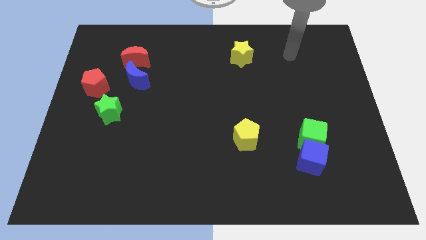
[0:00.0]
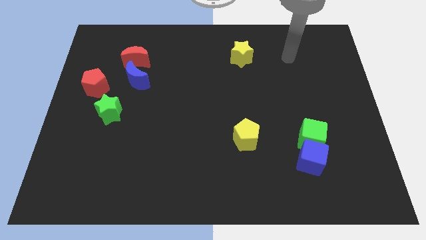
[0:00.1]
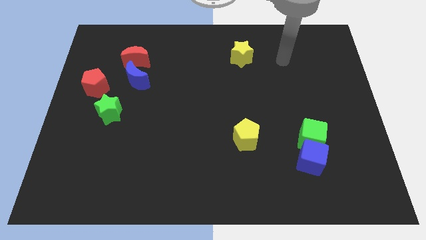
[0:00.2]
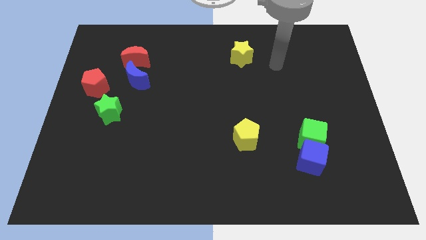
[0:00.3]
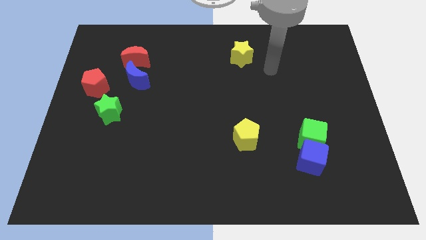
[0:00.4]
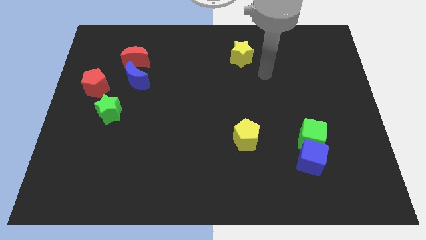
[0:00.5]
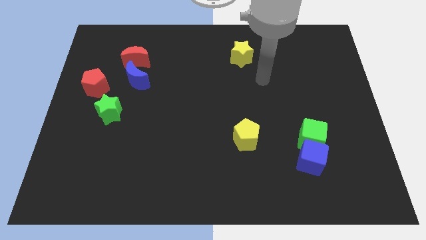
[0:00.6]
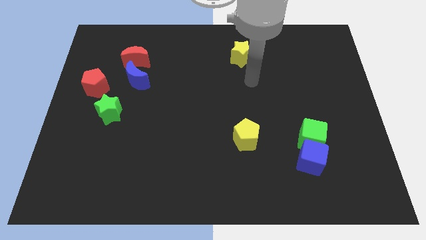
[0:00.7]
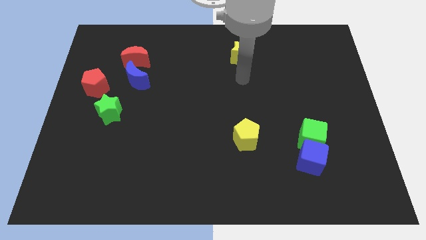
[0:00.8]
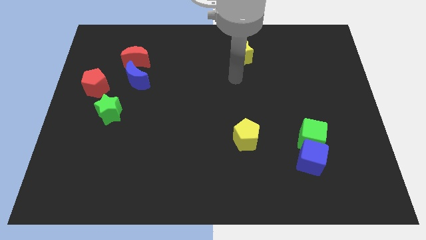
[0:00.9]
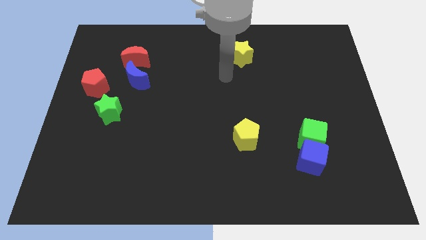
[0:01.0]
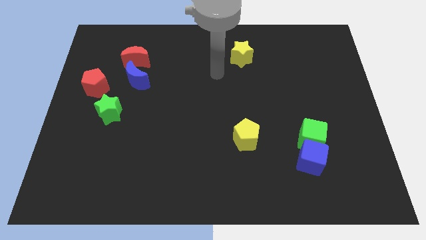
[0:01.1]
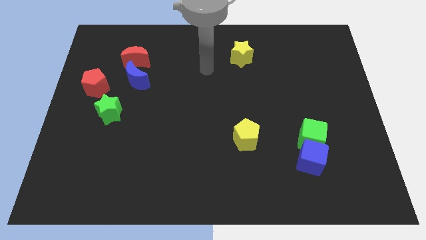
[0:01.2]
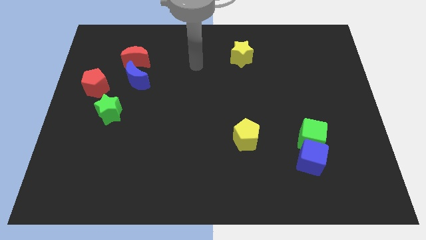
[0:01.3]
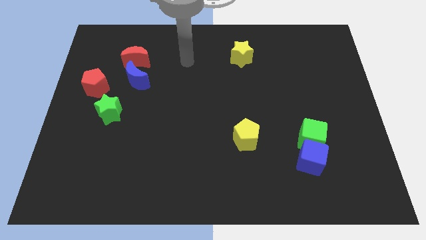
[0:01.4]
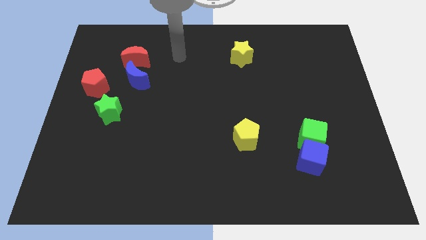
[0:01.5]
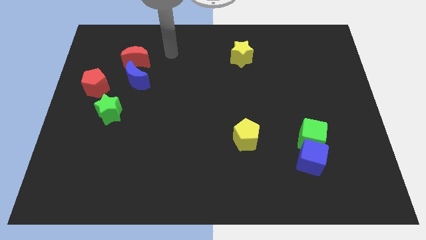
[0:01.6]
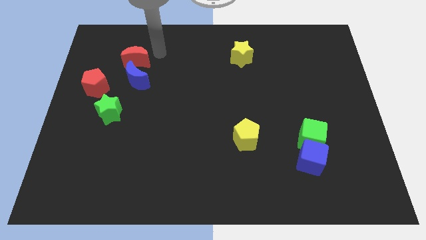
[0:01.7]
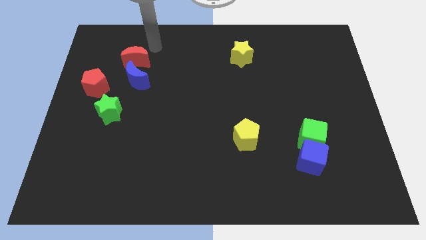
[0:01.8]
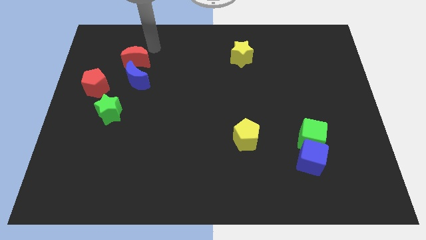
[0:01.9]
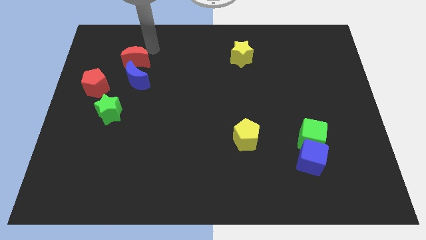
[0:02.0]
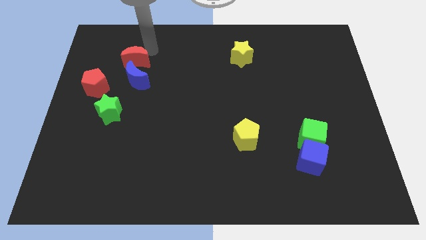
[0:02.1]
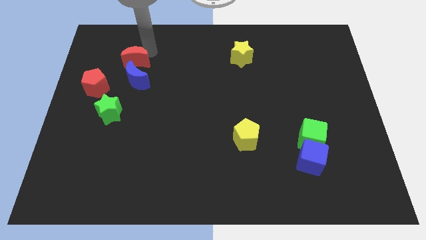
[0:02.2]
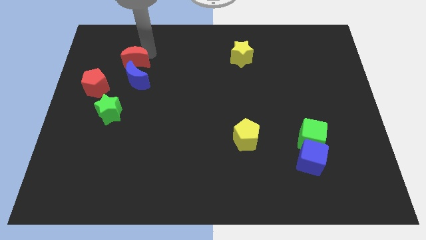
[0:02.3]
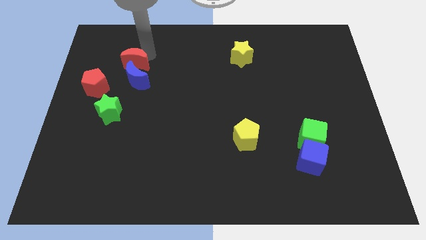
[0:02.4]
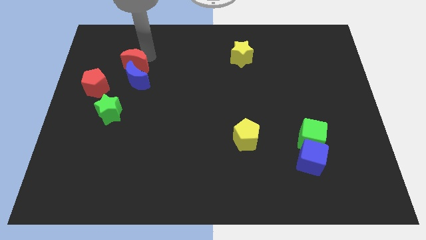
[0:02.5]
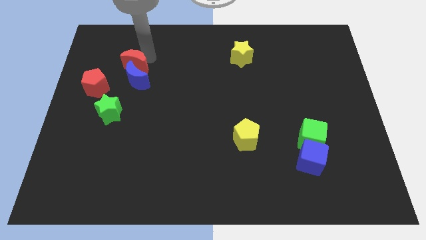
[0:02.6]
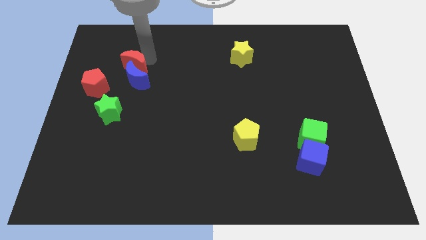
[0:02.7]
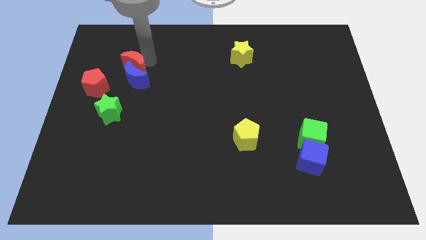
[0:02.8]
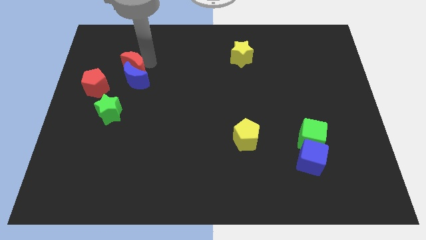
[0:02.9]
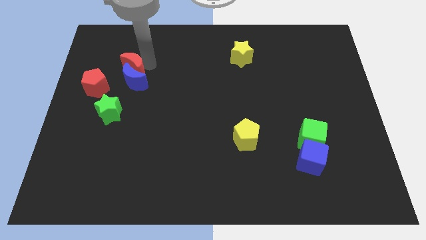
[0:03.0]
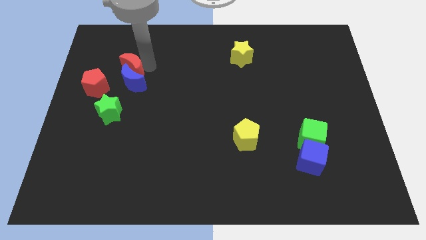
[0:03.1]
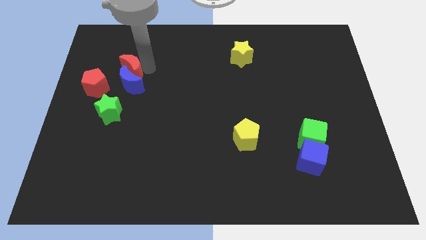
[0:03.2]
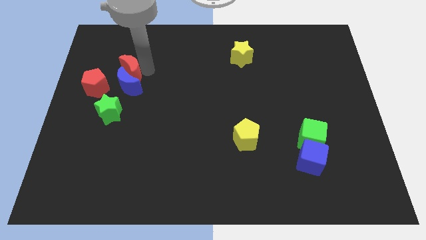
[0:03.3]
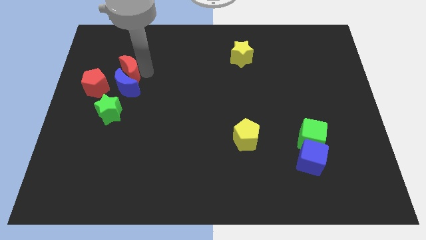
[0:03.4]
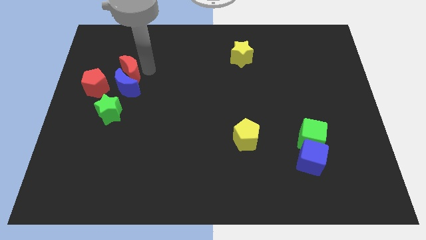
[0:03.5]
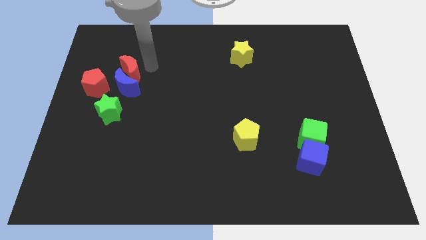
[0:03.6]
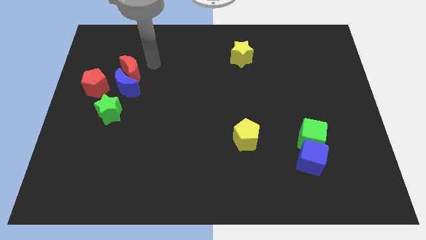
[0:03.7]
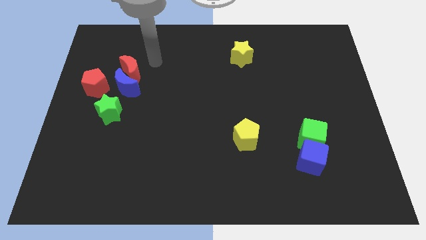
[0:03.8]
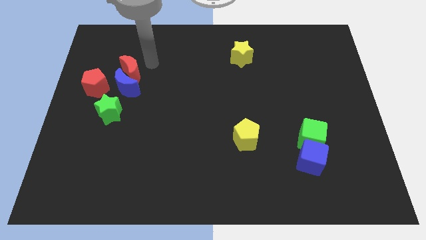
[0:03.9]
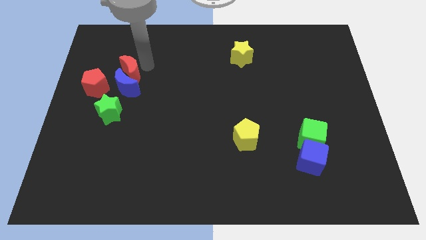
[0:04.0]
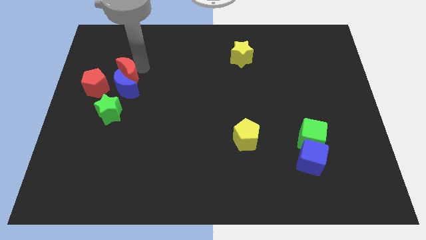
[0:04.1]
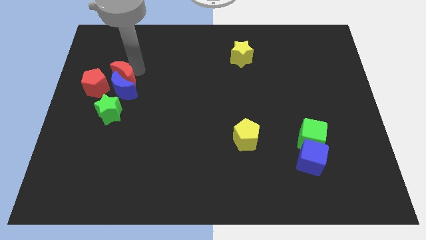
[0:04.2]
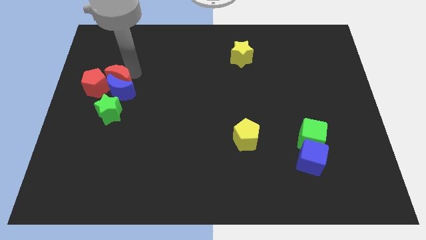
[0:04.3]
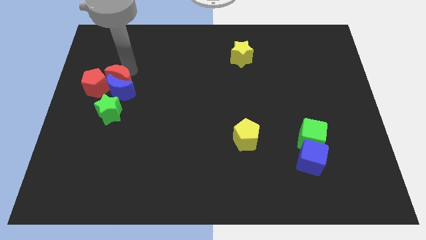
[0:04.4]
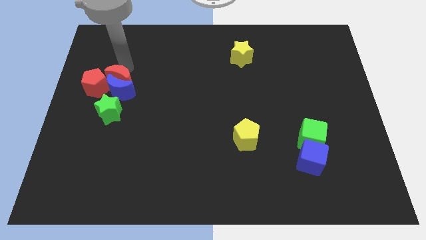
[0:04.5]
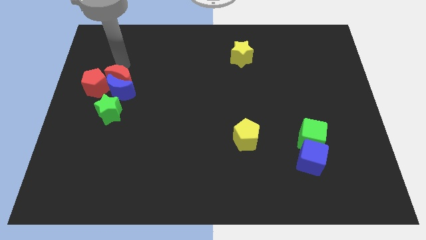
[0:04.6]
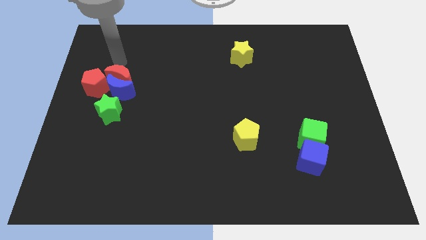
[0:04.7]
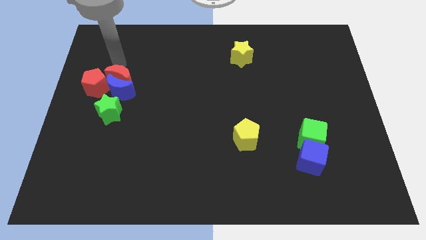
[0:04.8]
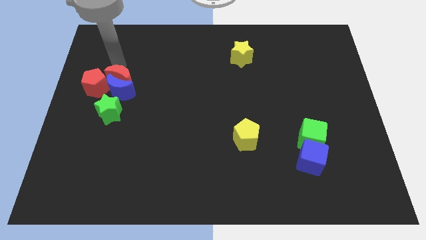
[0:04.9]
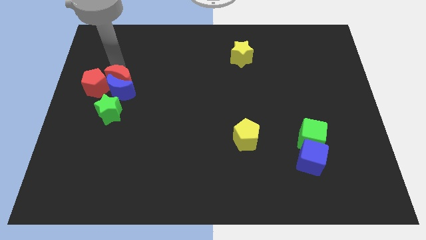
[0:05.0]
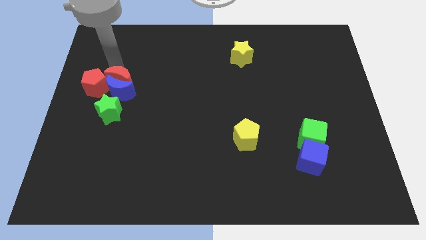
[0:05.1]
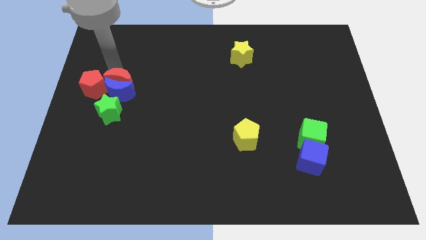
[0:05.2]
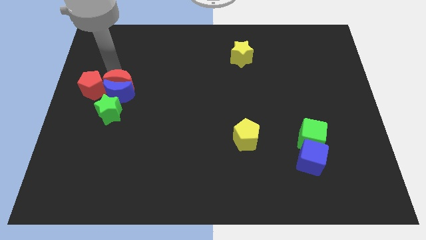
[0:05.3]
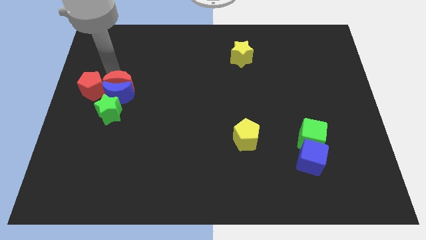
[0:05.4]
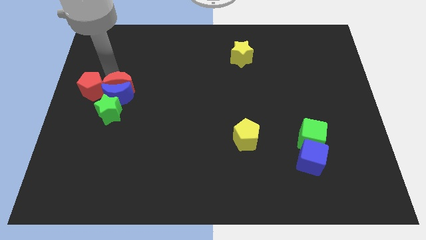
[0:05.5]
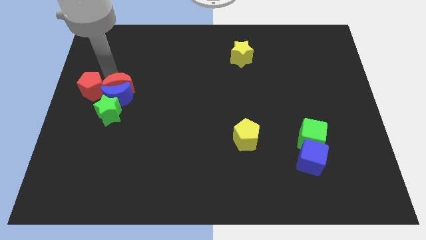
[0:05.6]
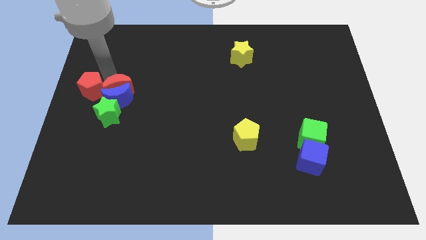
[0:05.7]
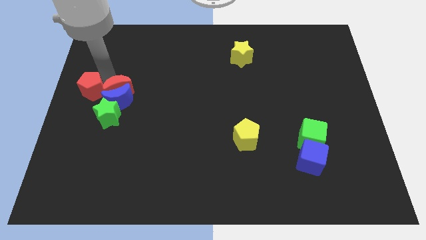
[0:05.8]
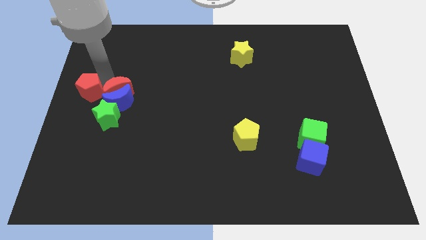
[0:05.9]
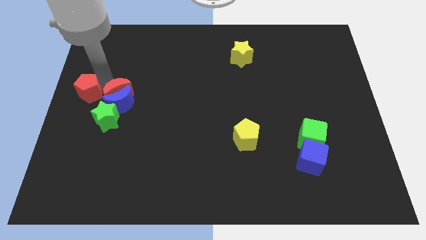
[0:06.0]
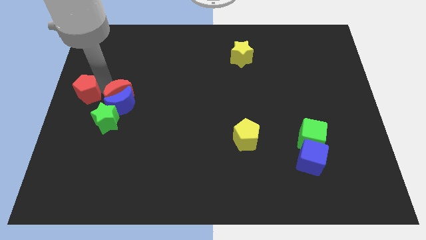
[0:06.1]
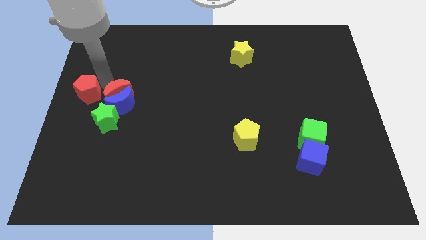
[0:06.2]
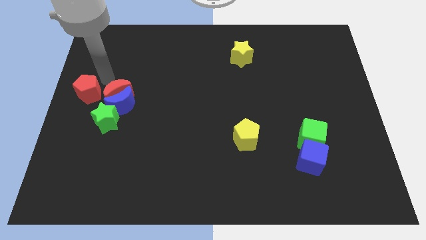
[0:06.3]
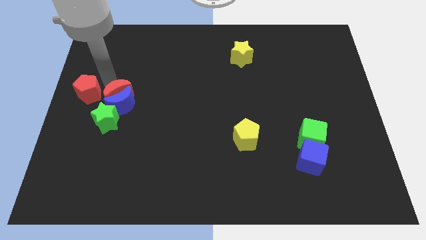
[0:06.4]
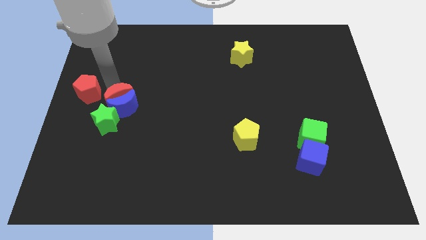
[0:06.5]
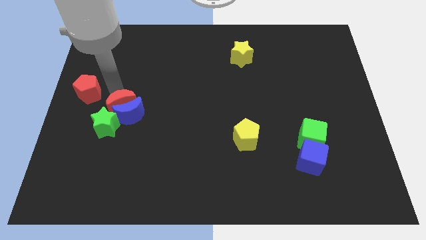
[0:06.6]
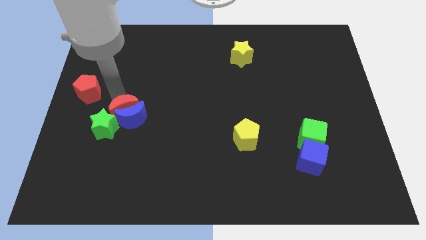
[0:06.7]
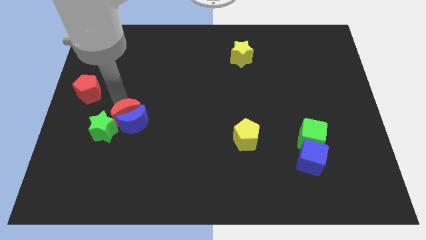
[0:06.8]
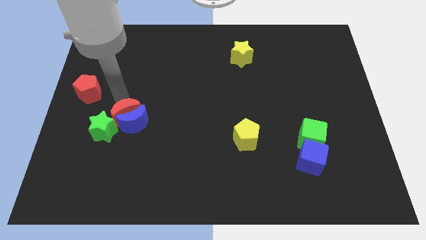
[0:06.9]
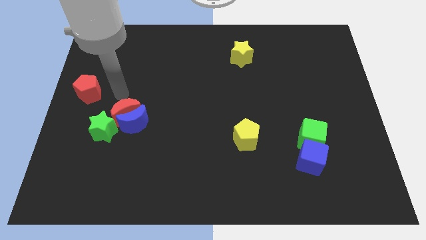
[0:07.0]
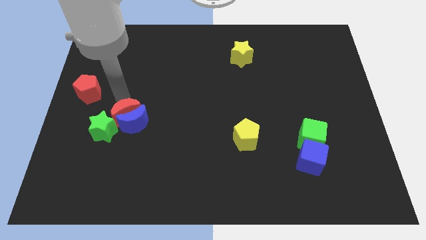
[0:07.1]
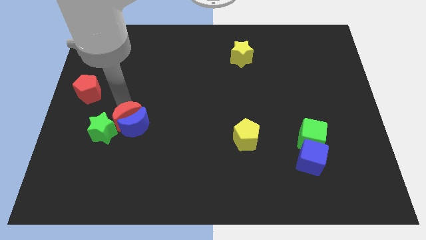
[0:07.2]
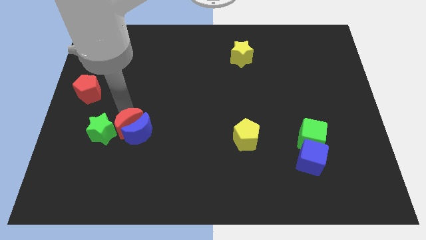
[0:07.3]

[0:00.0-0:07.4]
slide the red moon downwards

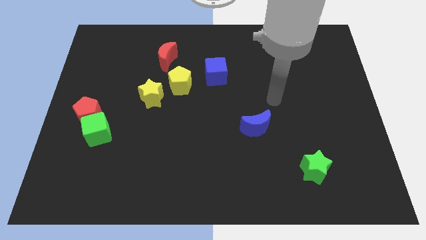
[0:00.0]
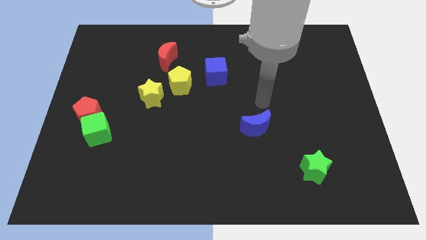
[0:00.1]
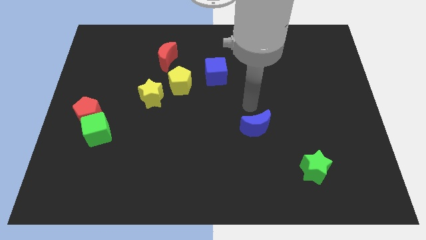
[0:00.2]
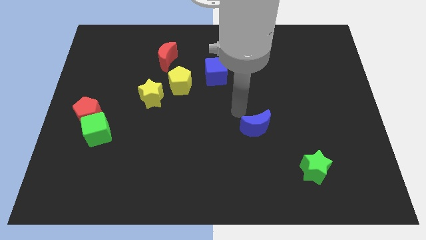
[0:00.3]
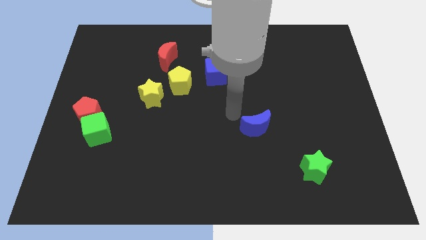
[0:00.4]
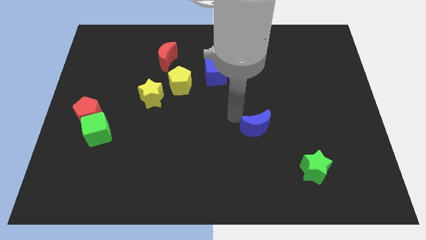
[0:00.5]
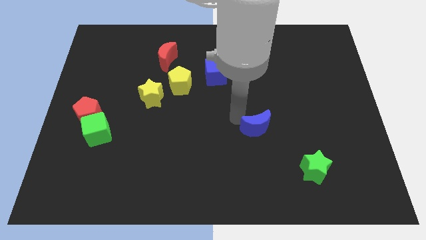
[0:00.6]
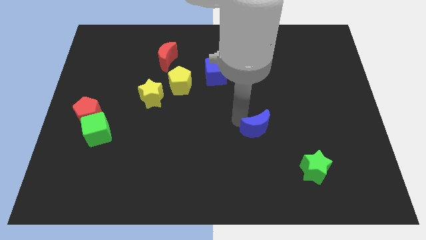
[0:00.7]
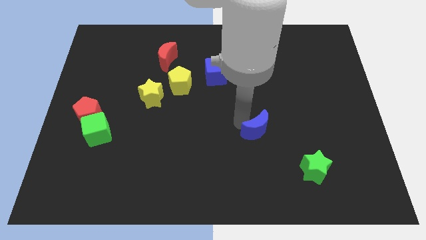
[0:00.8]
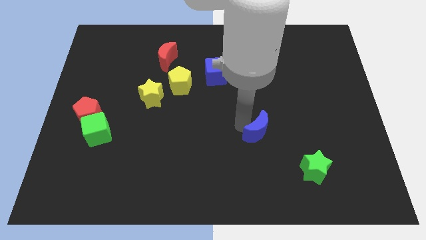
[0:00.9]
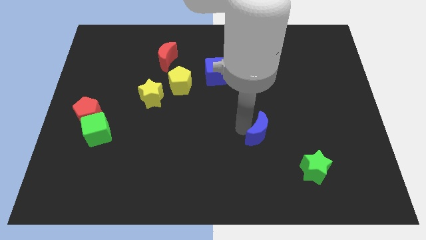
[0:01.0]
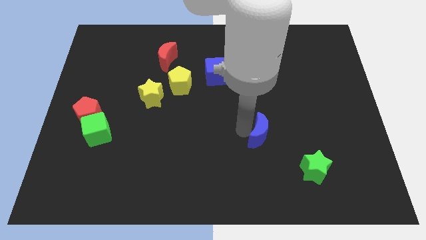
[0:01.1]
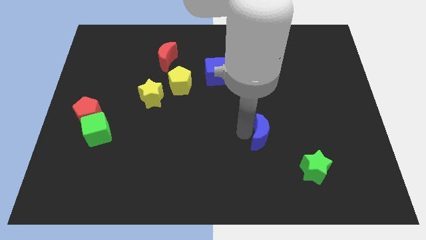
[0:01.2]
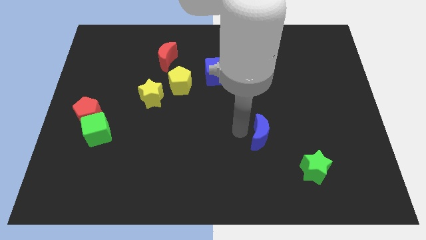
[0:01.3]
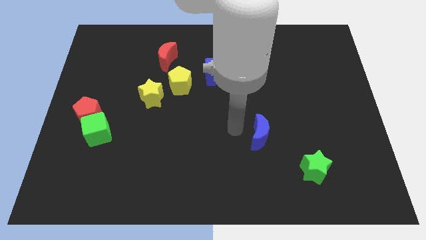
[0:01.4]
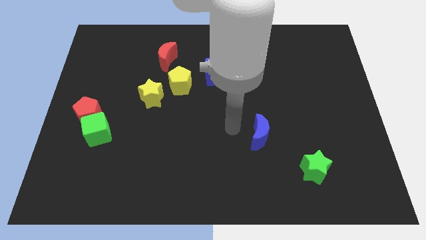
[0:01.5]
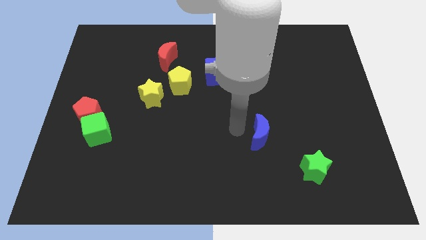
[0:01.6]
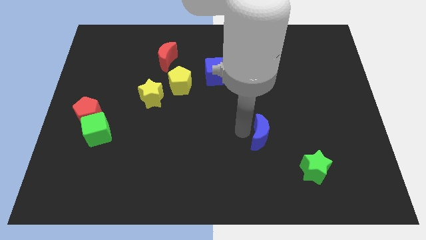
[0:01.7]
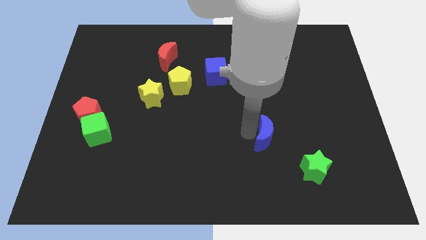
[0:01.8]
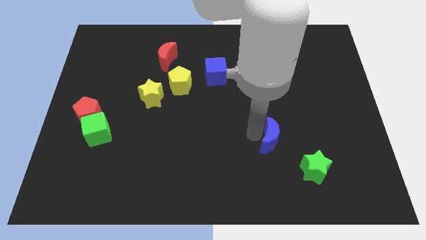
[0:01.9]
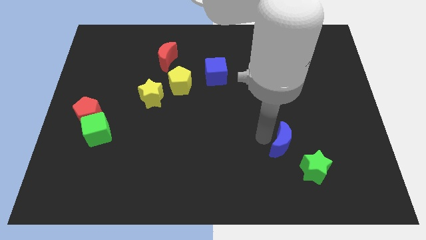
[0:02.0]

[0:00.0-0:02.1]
move the blue moon diagonally down and right a little bit
